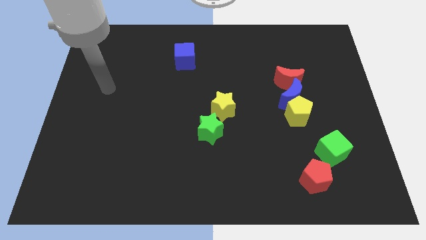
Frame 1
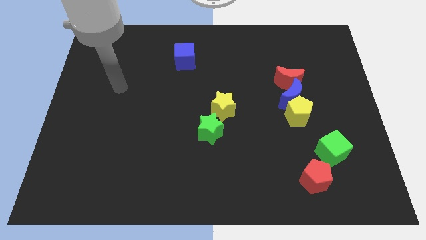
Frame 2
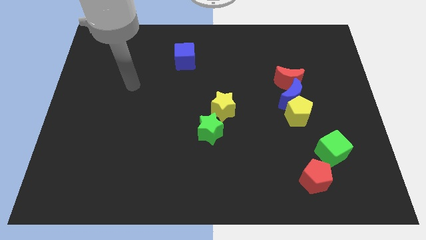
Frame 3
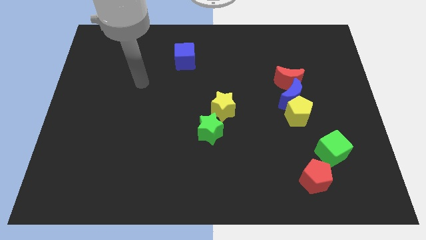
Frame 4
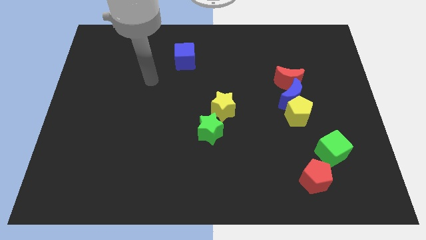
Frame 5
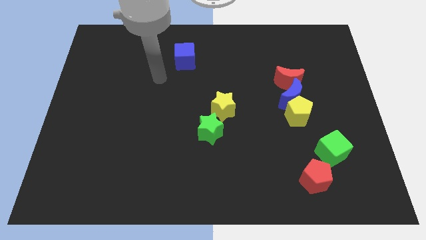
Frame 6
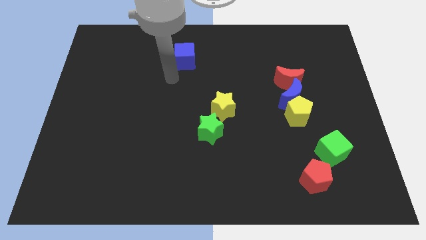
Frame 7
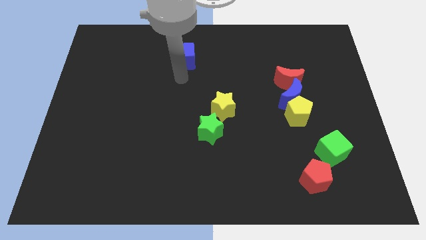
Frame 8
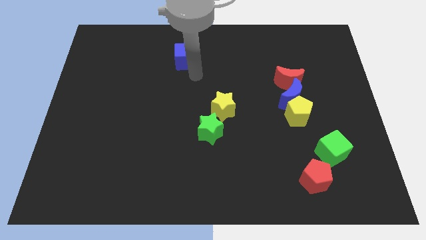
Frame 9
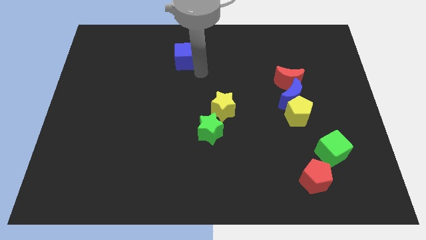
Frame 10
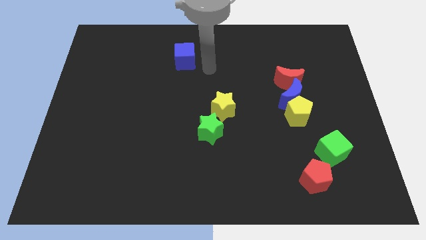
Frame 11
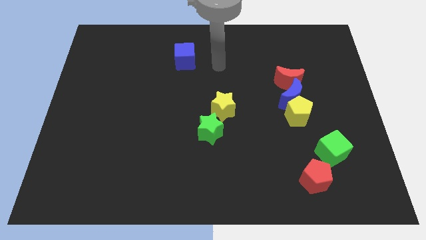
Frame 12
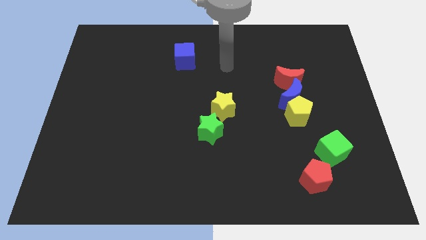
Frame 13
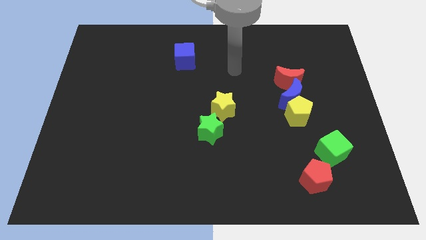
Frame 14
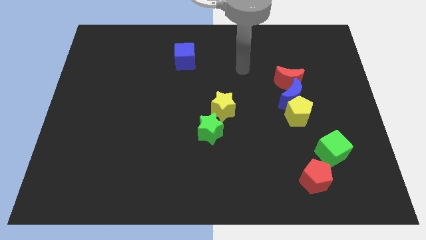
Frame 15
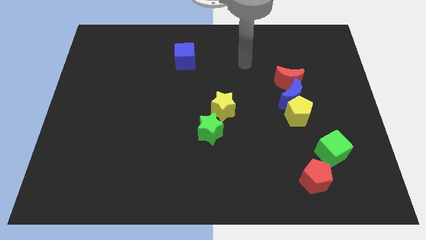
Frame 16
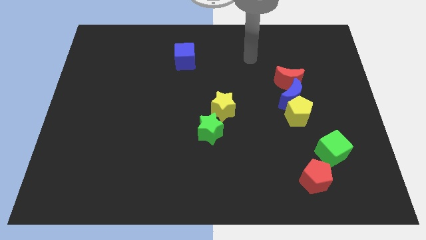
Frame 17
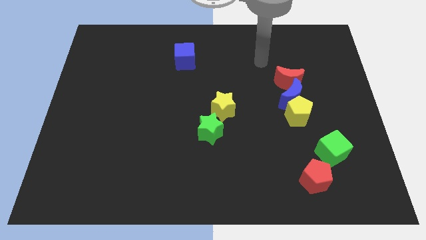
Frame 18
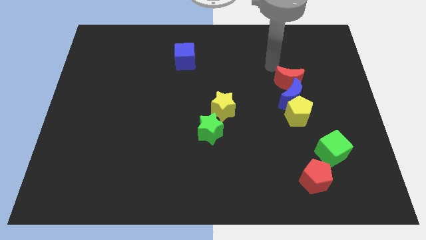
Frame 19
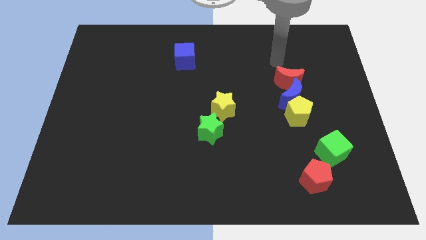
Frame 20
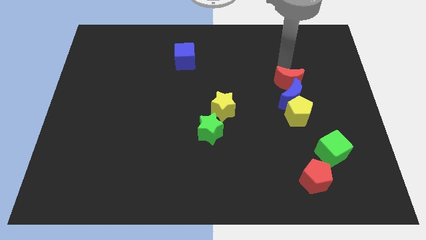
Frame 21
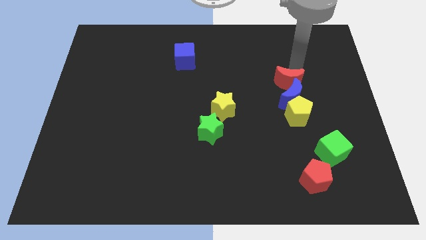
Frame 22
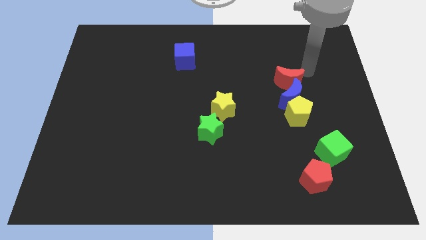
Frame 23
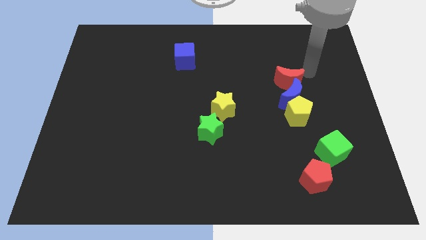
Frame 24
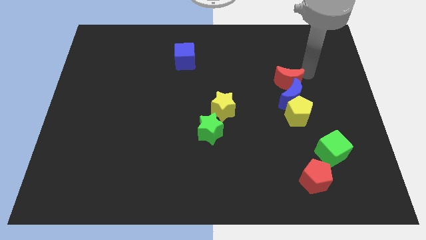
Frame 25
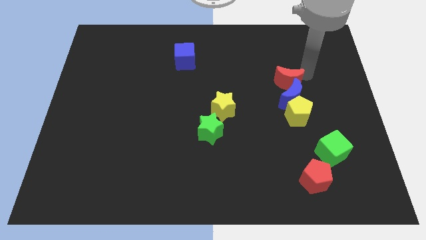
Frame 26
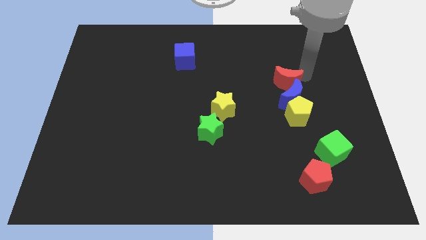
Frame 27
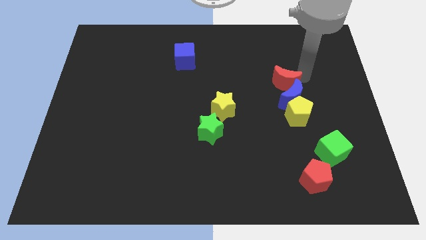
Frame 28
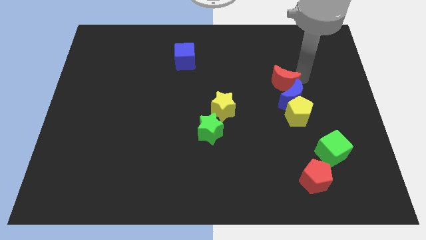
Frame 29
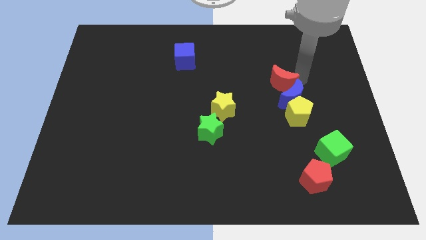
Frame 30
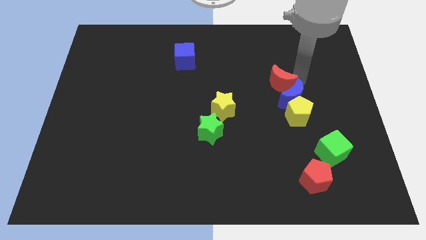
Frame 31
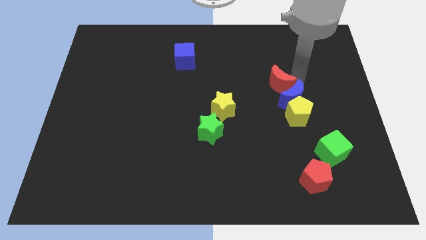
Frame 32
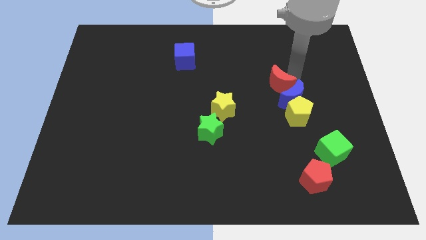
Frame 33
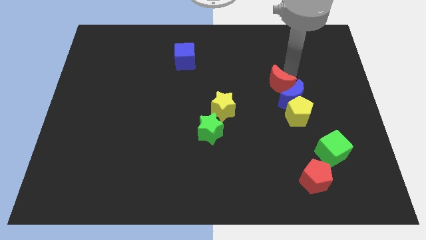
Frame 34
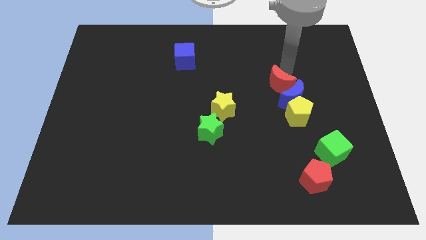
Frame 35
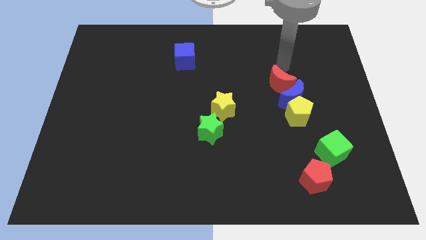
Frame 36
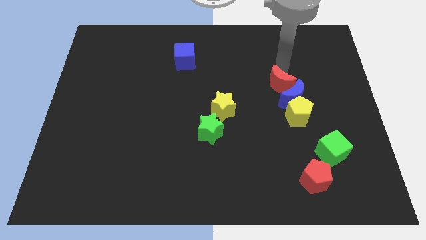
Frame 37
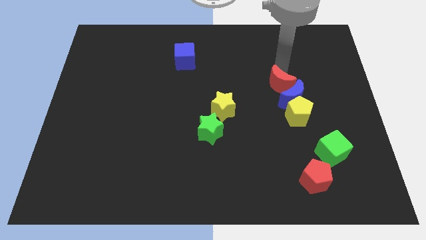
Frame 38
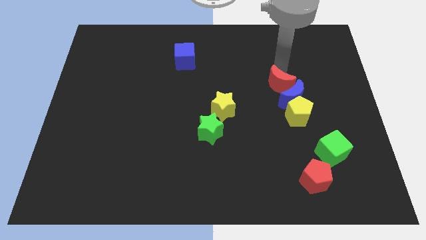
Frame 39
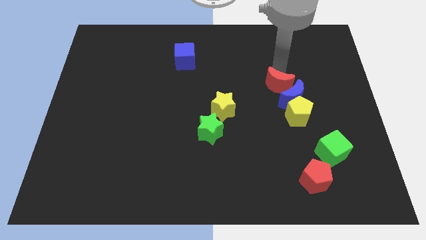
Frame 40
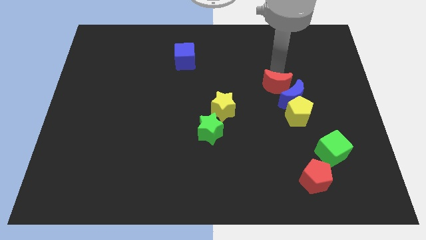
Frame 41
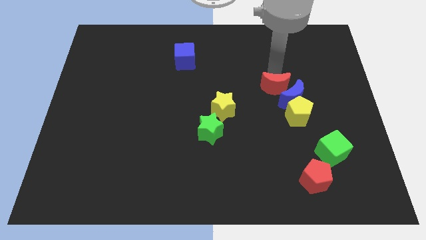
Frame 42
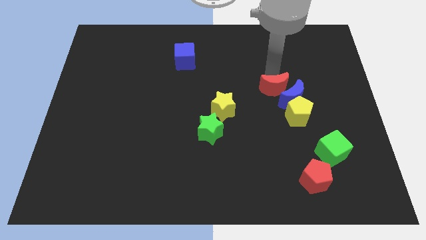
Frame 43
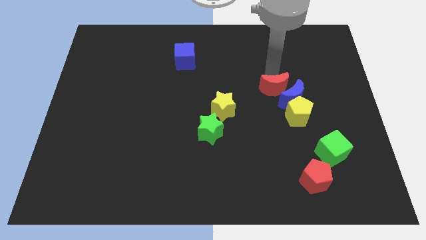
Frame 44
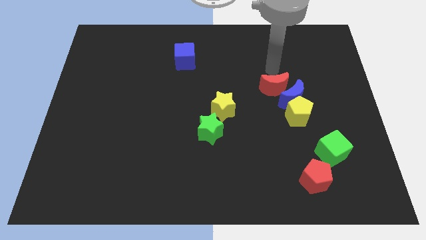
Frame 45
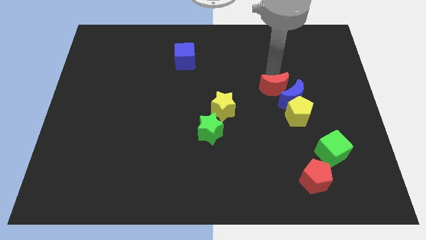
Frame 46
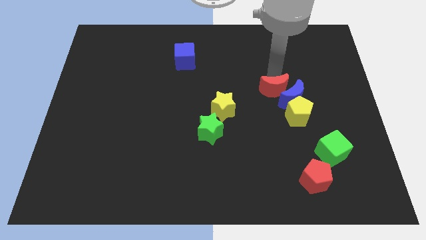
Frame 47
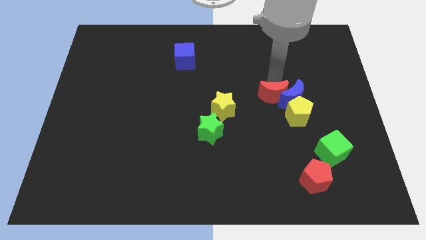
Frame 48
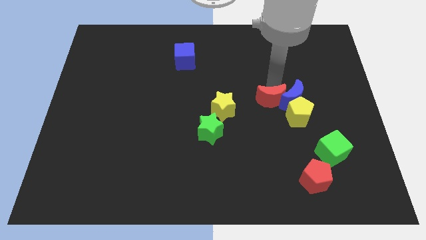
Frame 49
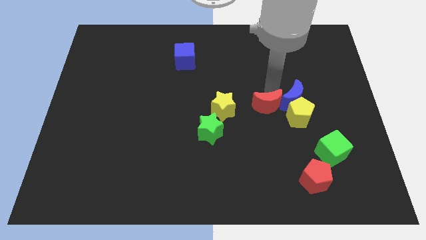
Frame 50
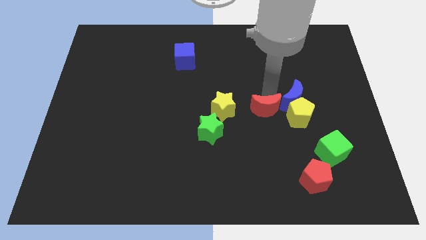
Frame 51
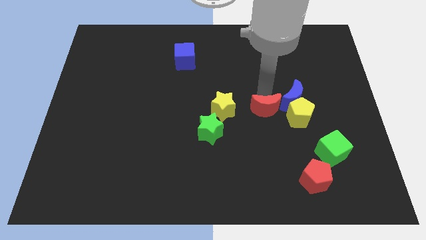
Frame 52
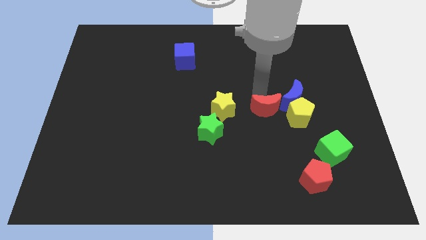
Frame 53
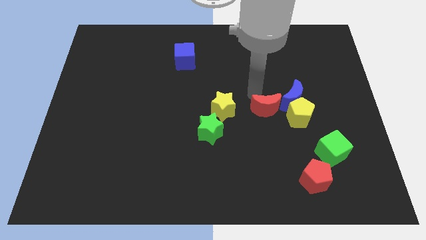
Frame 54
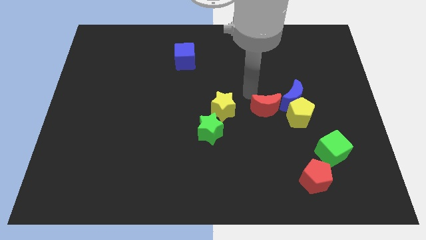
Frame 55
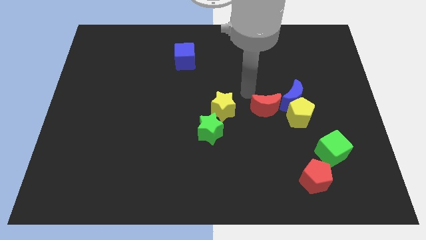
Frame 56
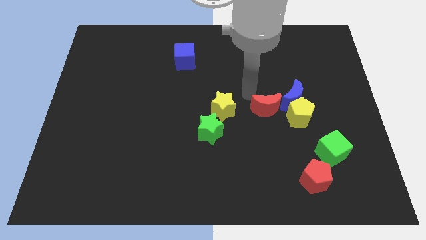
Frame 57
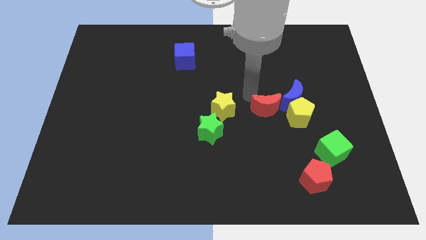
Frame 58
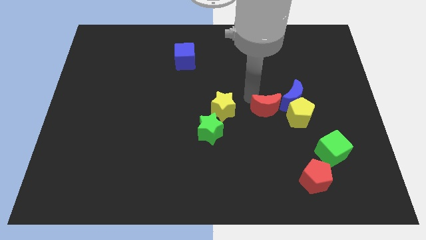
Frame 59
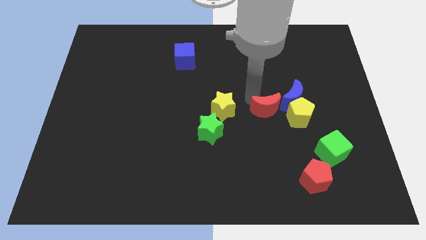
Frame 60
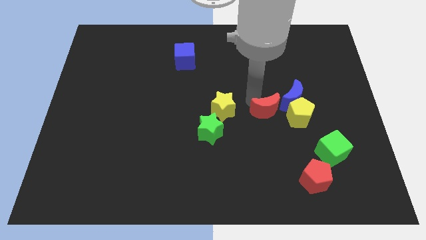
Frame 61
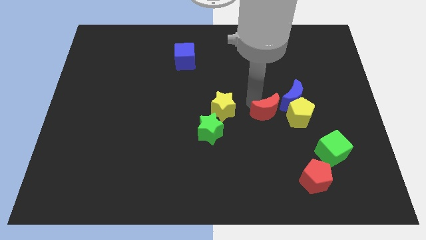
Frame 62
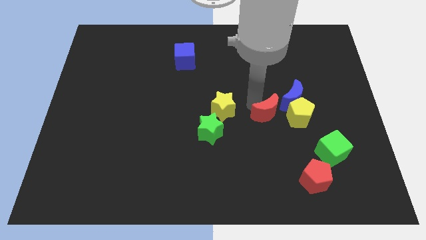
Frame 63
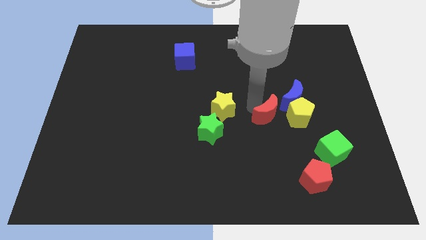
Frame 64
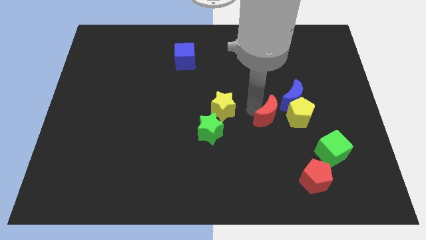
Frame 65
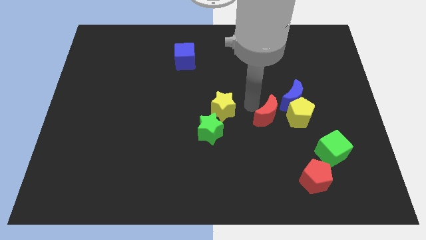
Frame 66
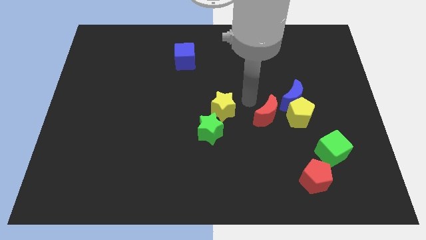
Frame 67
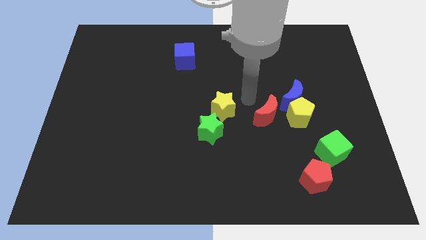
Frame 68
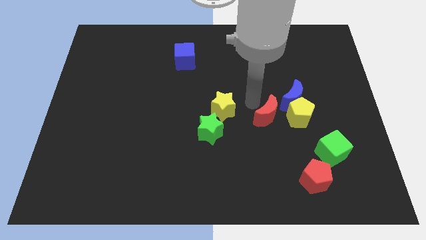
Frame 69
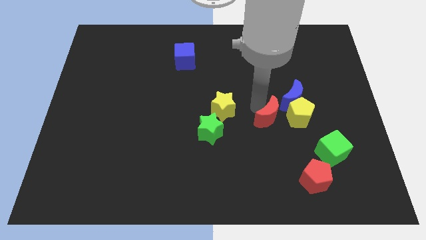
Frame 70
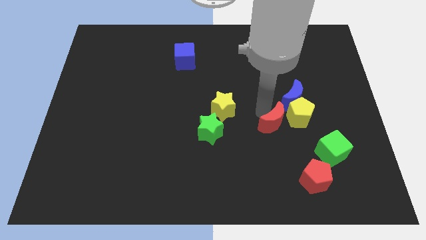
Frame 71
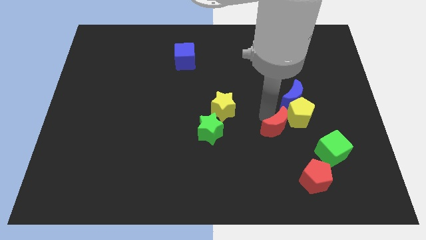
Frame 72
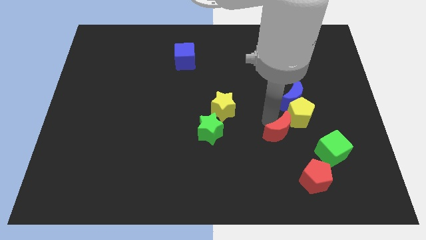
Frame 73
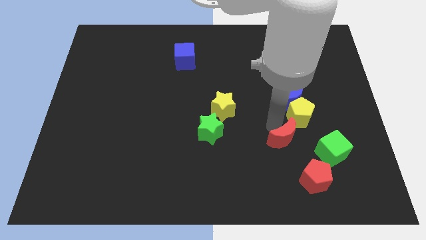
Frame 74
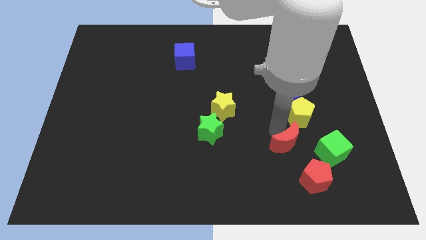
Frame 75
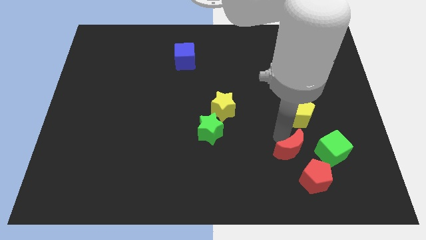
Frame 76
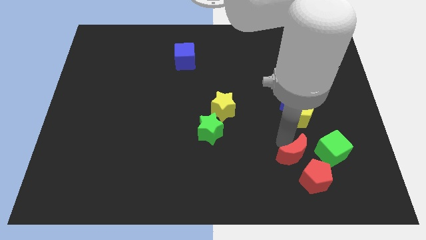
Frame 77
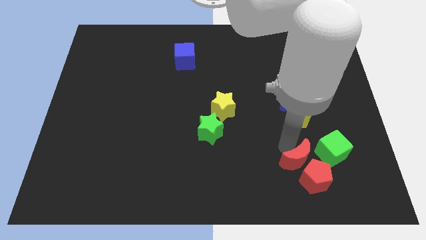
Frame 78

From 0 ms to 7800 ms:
put the red moon next to the red pentagon
